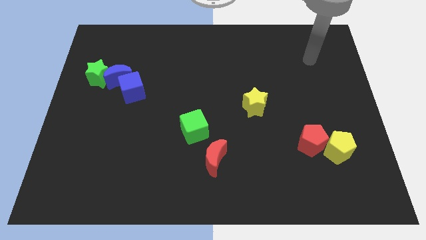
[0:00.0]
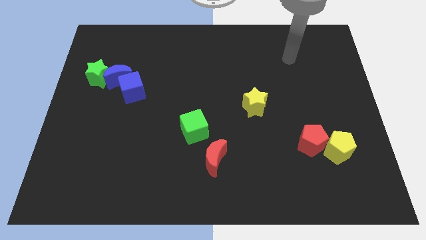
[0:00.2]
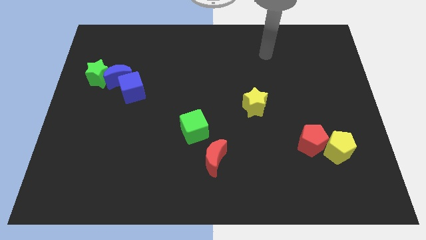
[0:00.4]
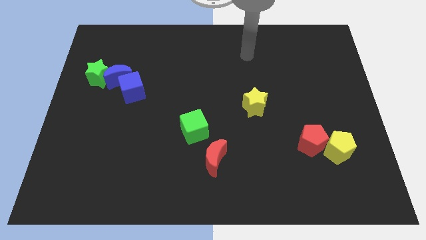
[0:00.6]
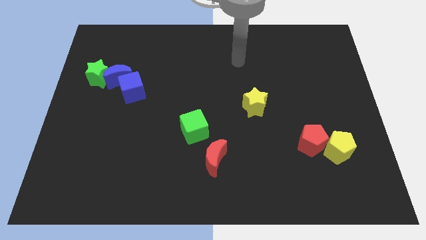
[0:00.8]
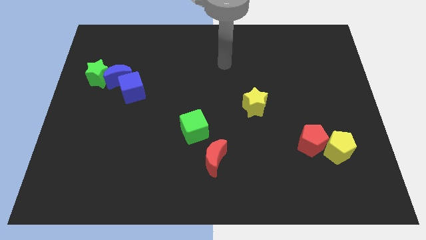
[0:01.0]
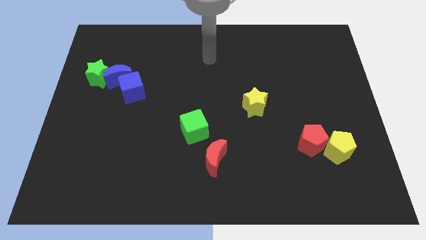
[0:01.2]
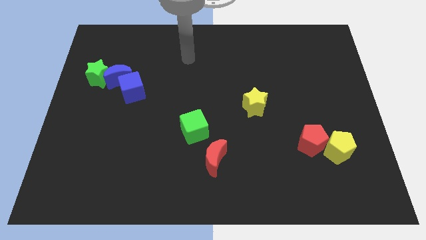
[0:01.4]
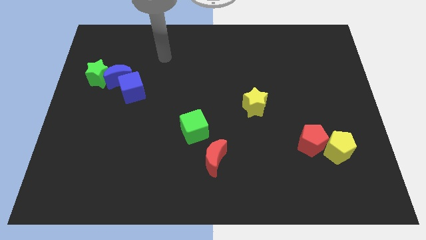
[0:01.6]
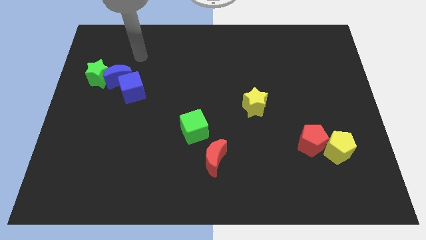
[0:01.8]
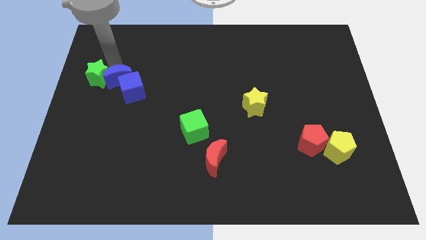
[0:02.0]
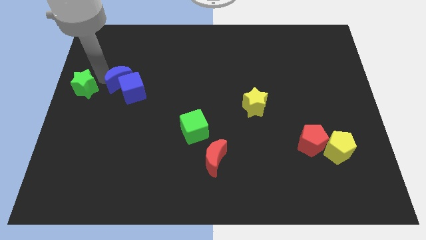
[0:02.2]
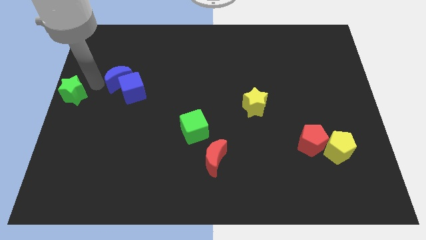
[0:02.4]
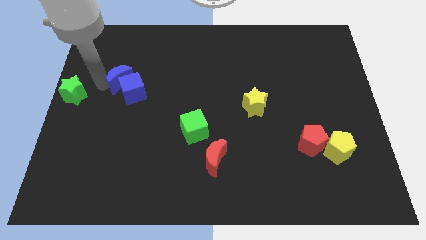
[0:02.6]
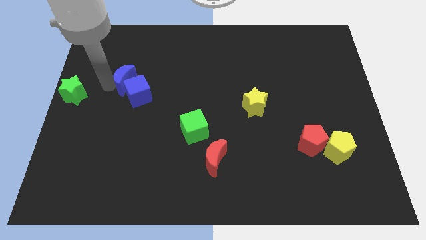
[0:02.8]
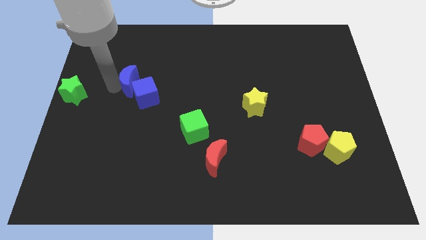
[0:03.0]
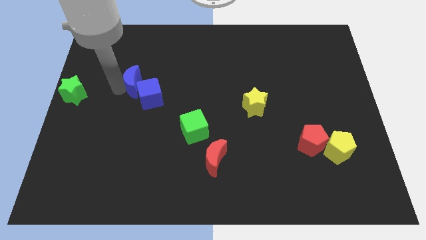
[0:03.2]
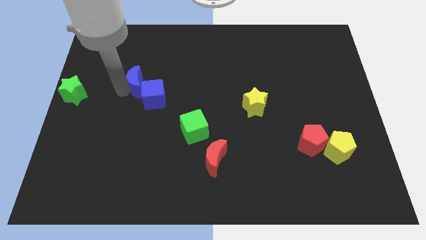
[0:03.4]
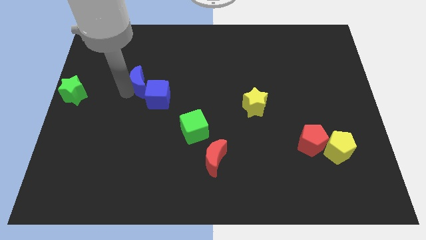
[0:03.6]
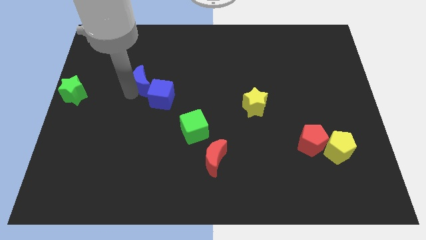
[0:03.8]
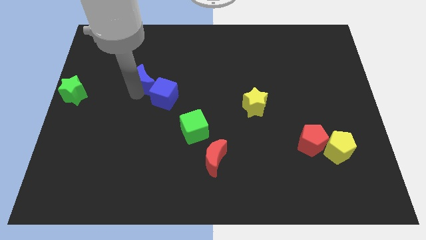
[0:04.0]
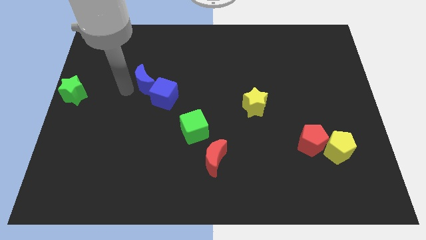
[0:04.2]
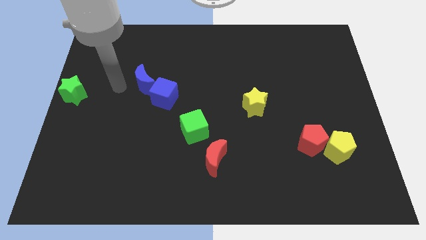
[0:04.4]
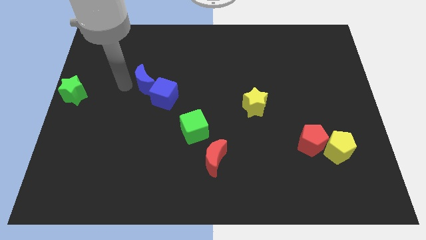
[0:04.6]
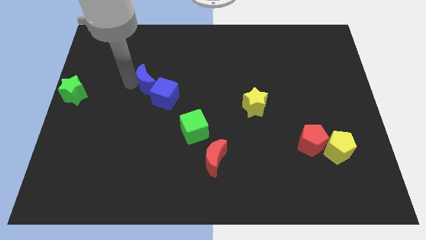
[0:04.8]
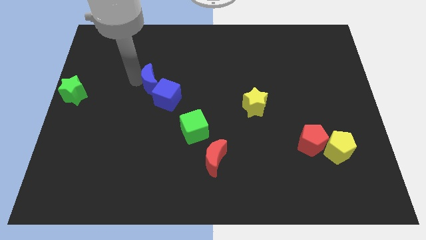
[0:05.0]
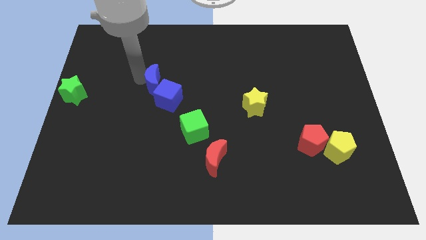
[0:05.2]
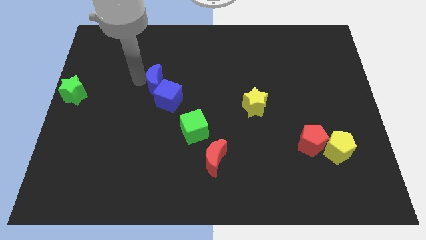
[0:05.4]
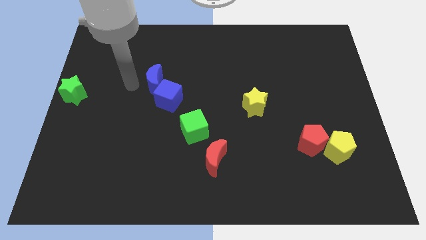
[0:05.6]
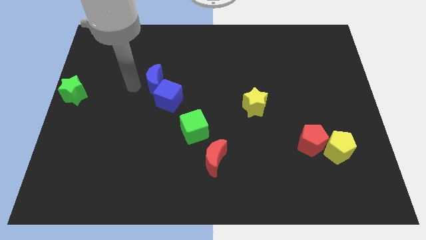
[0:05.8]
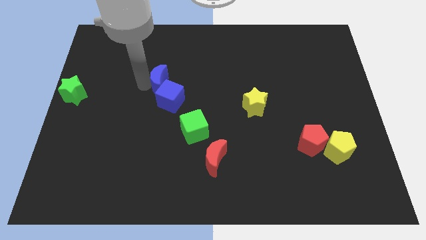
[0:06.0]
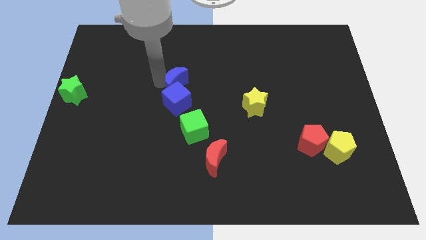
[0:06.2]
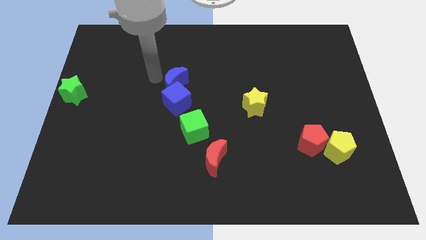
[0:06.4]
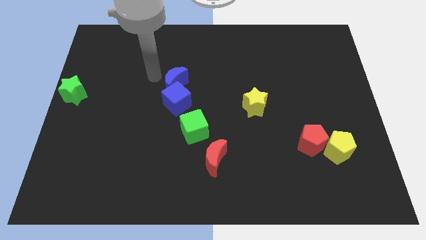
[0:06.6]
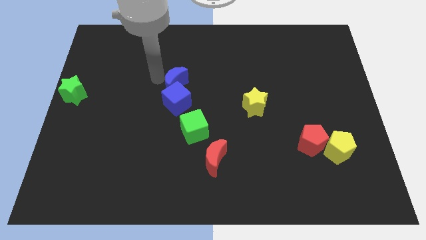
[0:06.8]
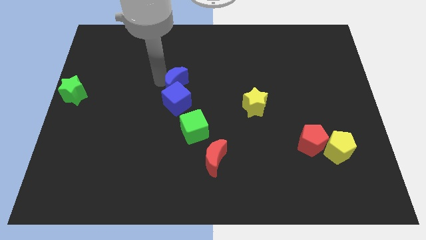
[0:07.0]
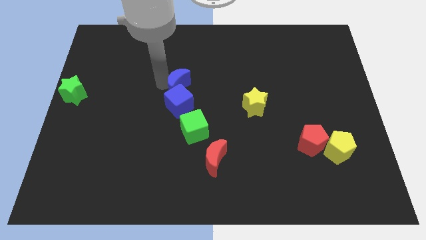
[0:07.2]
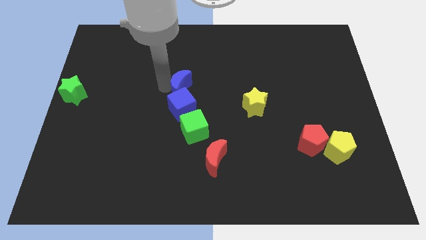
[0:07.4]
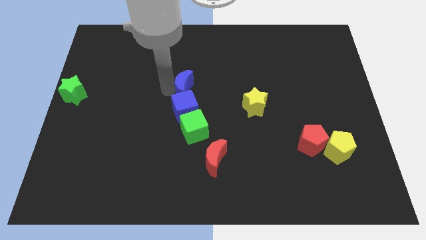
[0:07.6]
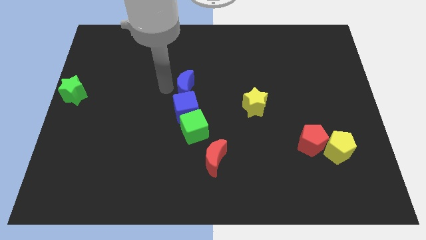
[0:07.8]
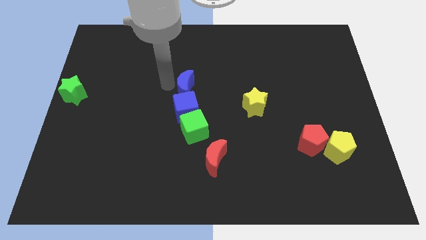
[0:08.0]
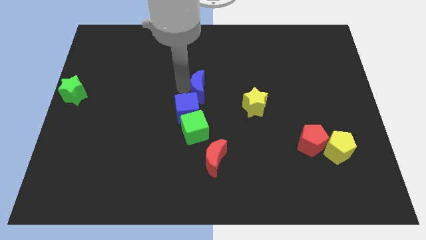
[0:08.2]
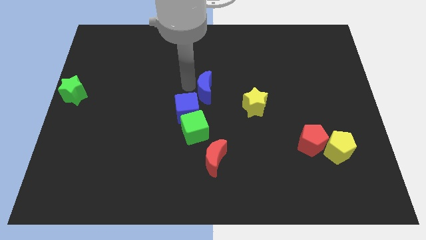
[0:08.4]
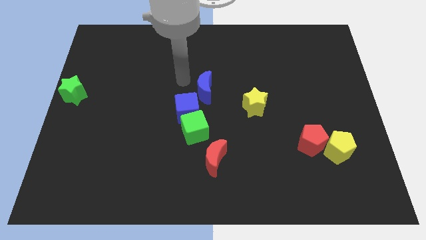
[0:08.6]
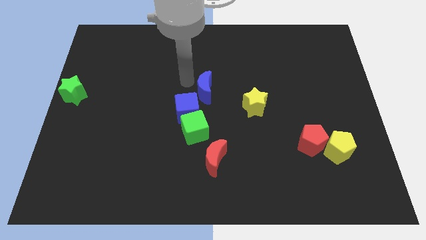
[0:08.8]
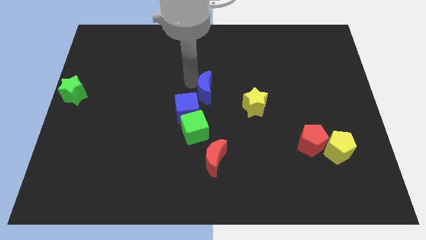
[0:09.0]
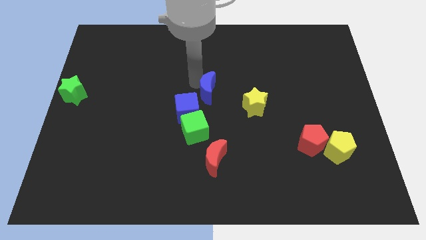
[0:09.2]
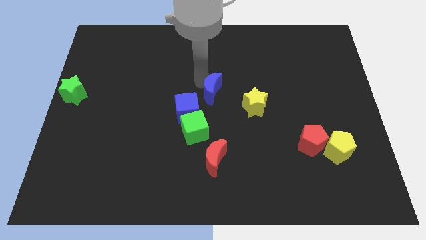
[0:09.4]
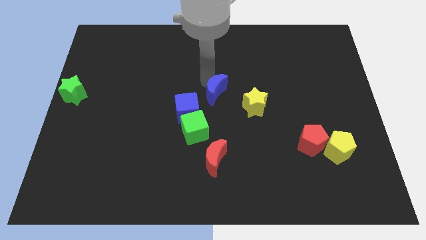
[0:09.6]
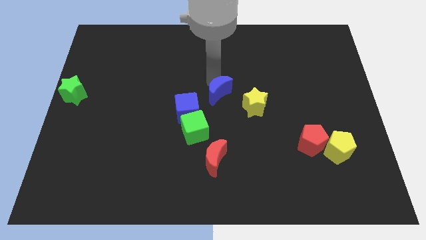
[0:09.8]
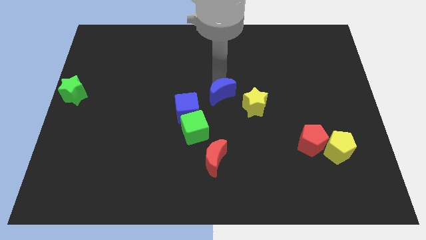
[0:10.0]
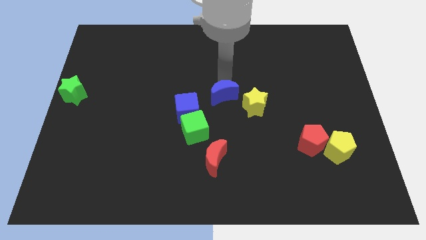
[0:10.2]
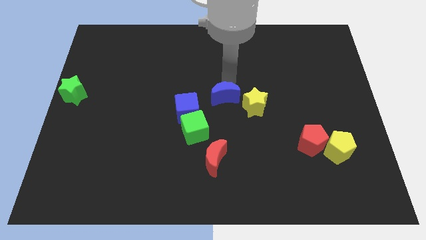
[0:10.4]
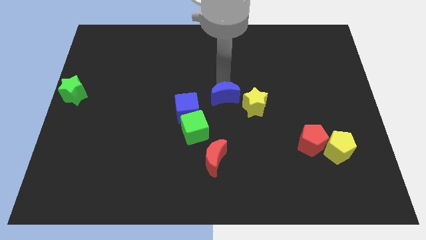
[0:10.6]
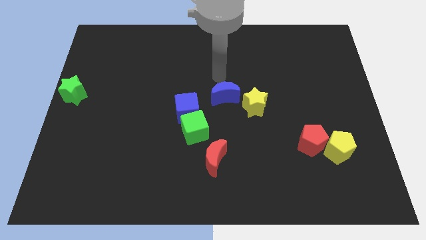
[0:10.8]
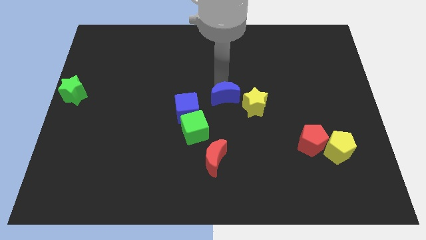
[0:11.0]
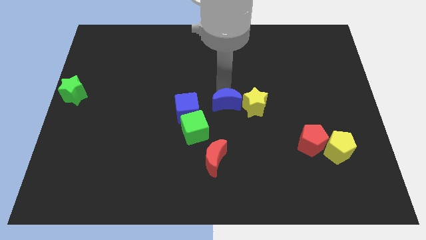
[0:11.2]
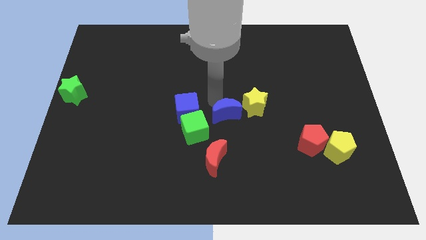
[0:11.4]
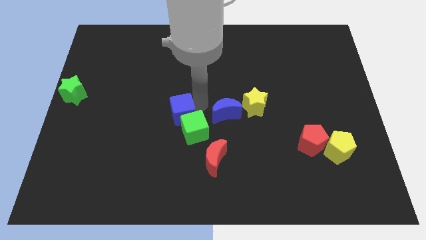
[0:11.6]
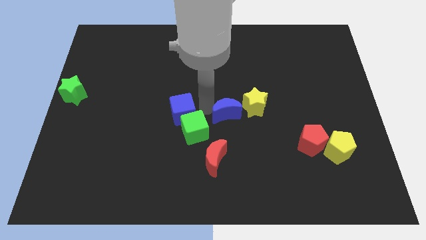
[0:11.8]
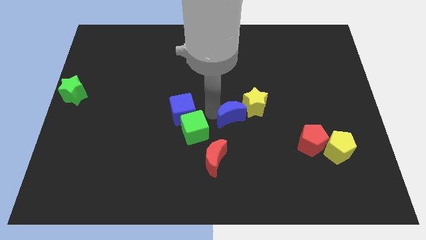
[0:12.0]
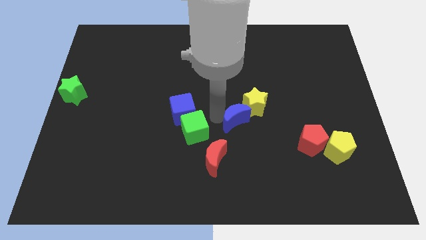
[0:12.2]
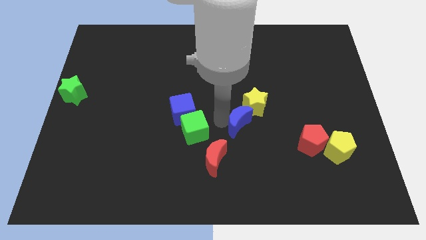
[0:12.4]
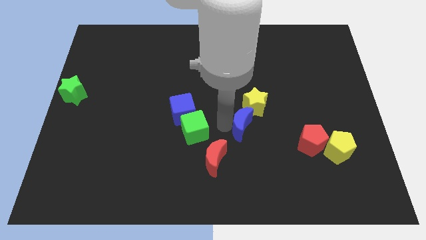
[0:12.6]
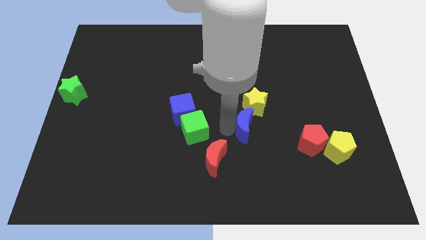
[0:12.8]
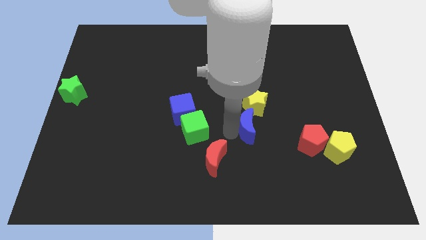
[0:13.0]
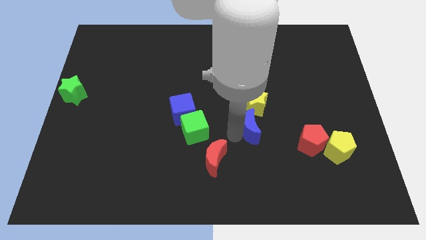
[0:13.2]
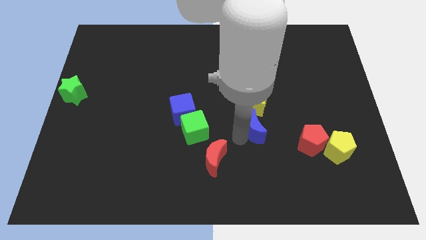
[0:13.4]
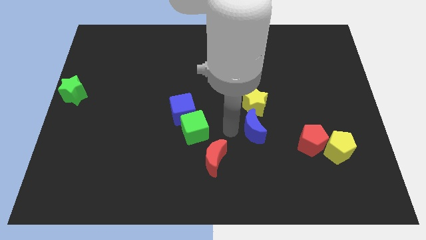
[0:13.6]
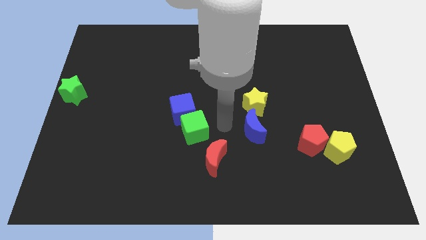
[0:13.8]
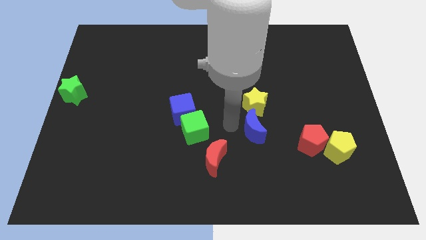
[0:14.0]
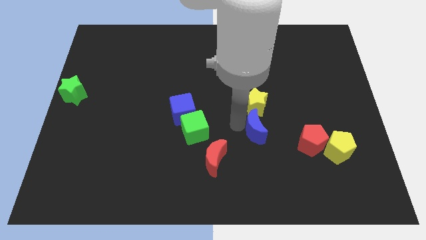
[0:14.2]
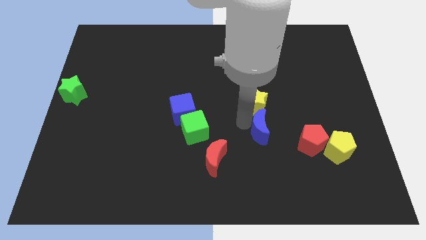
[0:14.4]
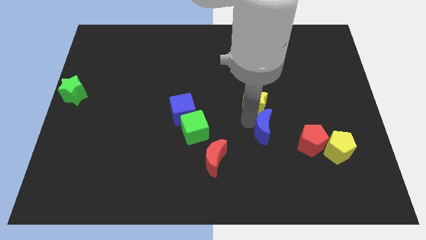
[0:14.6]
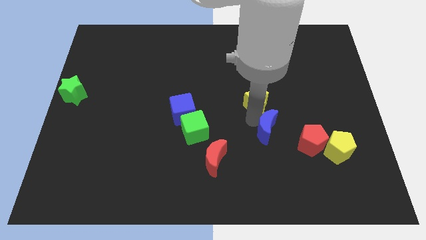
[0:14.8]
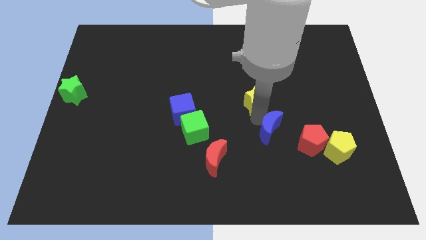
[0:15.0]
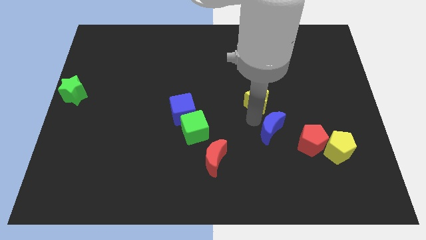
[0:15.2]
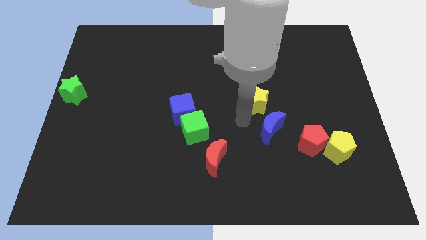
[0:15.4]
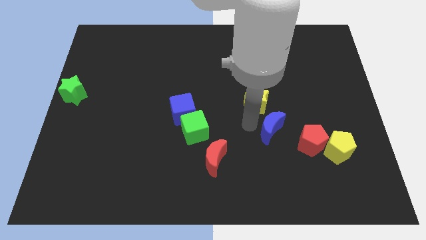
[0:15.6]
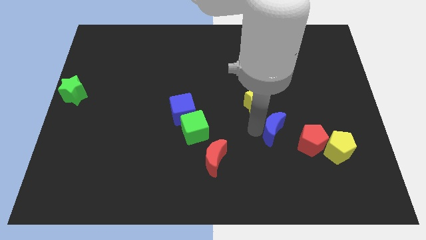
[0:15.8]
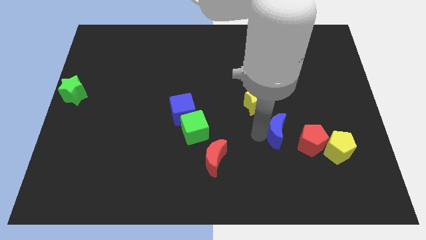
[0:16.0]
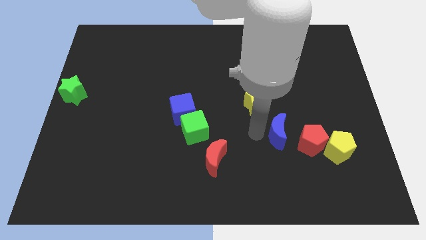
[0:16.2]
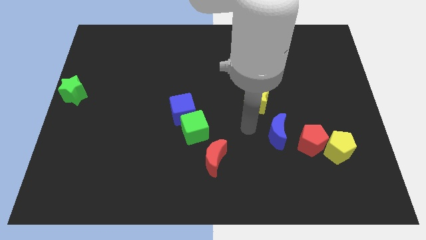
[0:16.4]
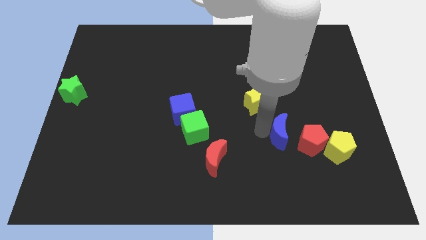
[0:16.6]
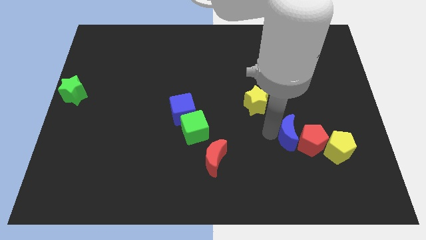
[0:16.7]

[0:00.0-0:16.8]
move the blue moon to the red pentagon
